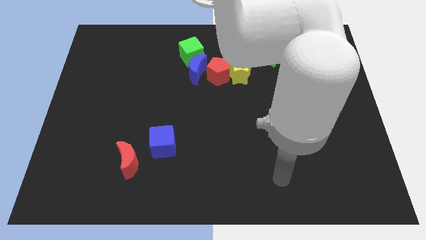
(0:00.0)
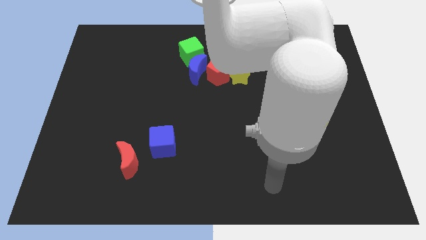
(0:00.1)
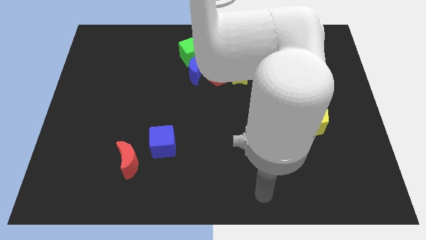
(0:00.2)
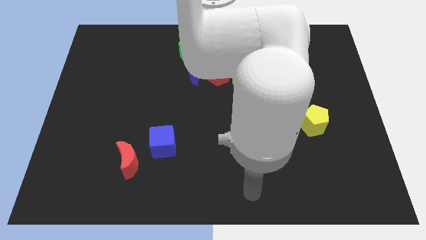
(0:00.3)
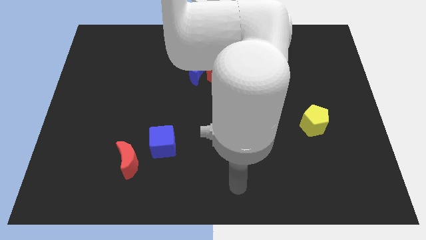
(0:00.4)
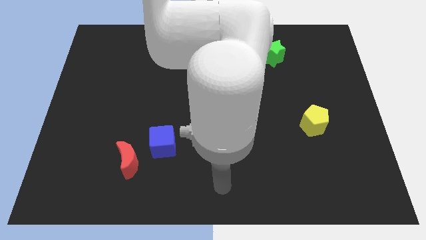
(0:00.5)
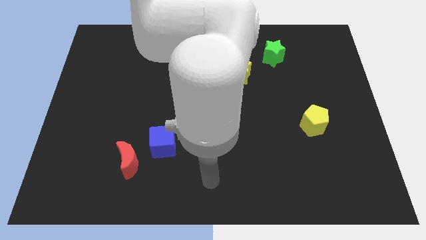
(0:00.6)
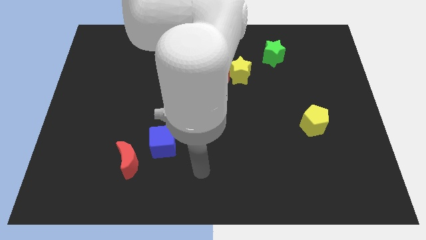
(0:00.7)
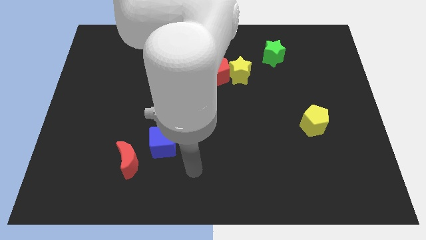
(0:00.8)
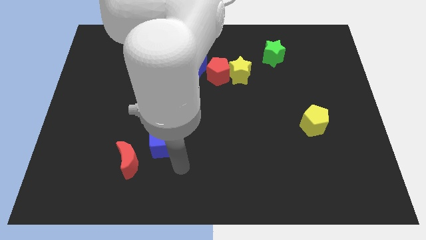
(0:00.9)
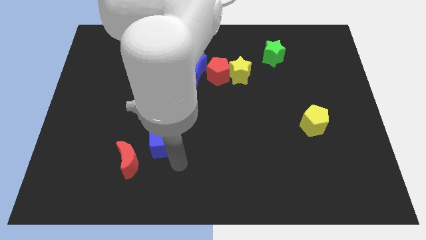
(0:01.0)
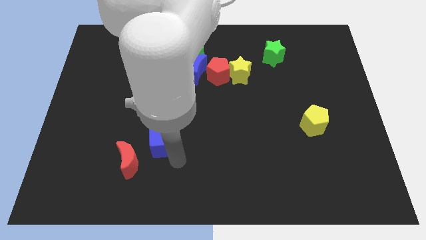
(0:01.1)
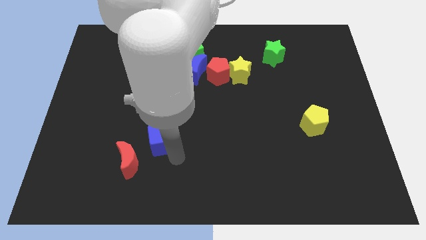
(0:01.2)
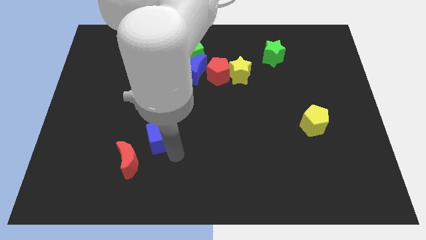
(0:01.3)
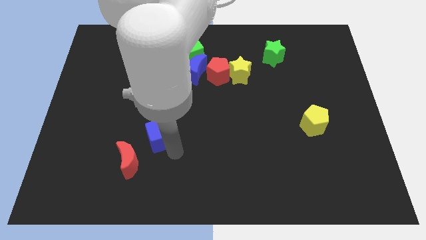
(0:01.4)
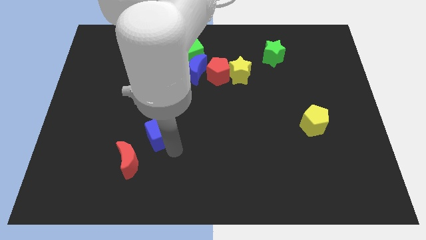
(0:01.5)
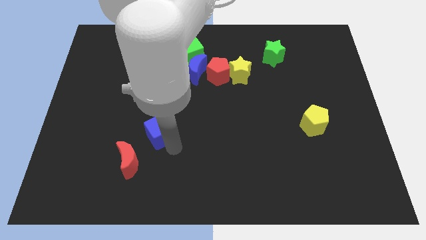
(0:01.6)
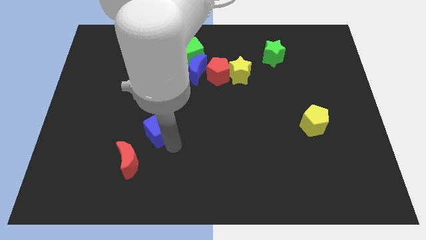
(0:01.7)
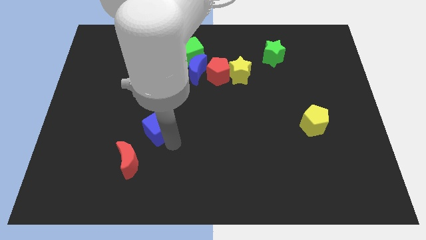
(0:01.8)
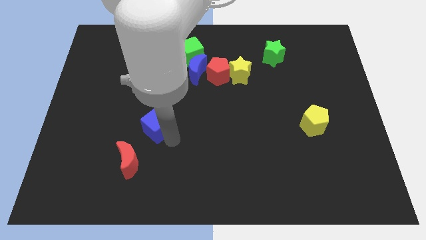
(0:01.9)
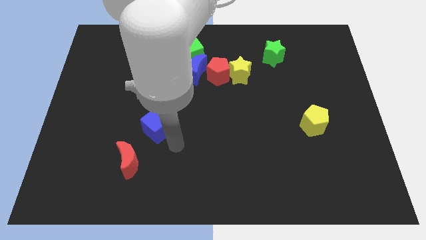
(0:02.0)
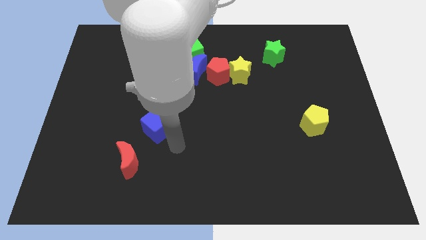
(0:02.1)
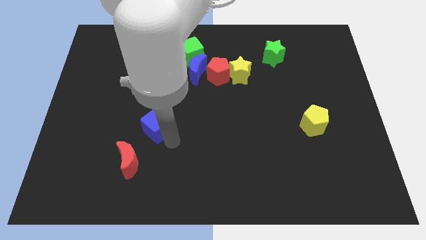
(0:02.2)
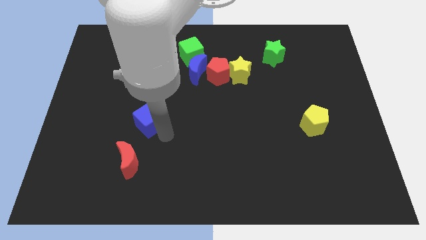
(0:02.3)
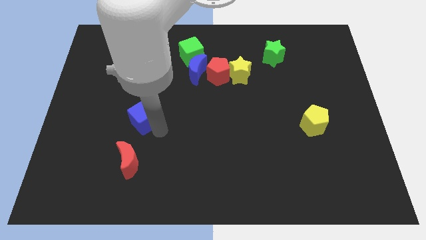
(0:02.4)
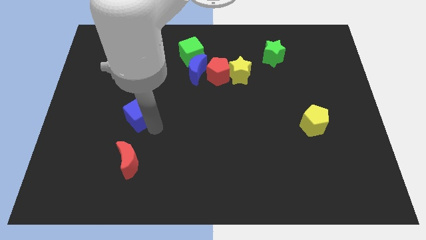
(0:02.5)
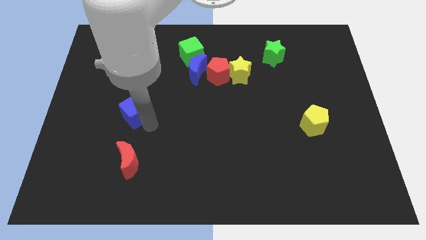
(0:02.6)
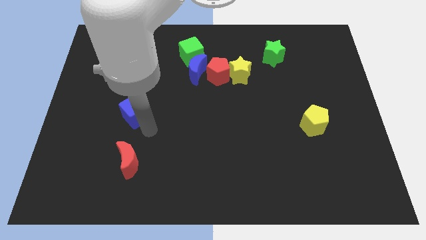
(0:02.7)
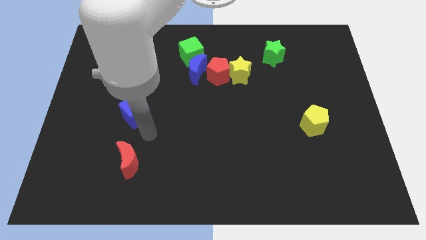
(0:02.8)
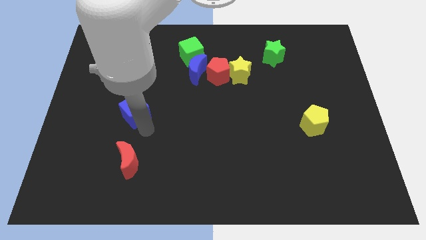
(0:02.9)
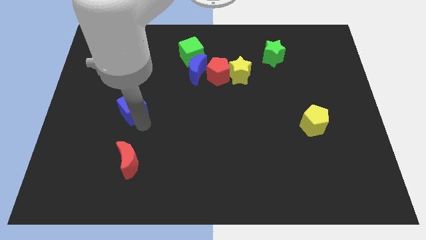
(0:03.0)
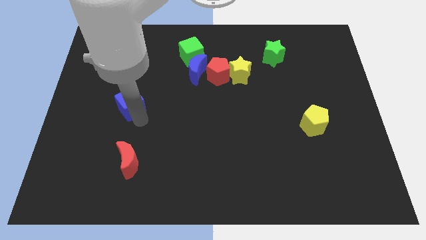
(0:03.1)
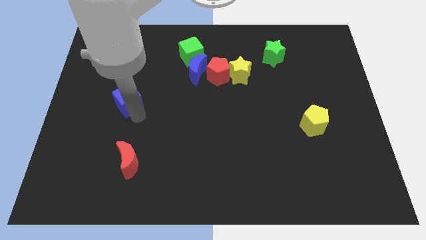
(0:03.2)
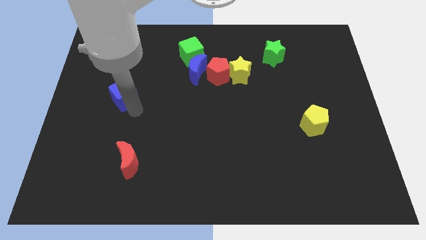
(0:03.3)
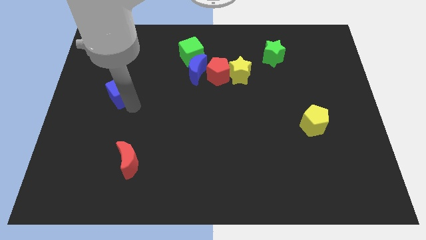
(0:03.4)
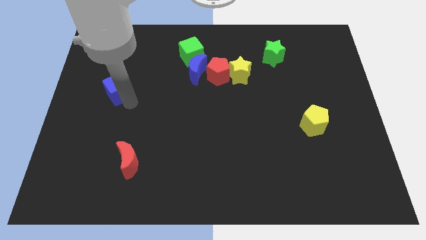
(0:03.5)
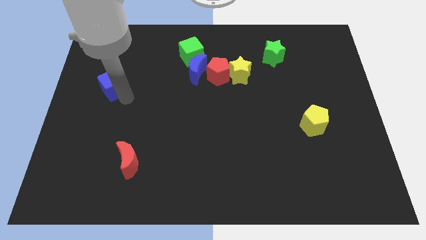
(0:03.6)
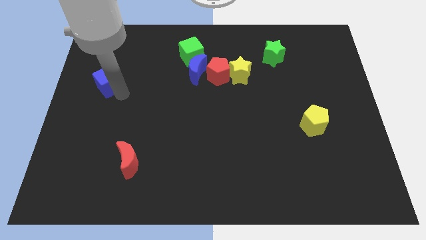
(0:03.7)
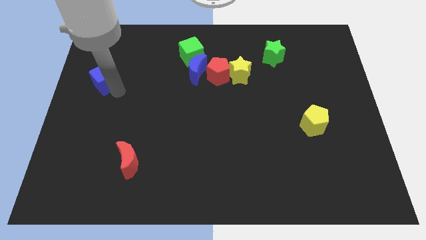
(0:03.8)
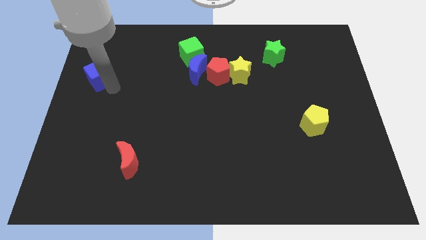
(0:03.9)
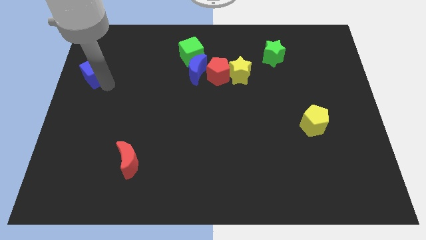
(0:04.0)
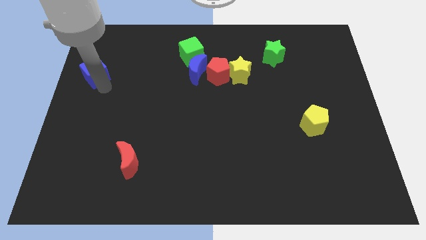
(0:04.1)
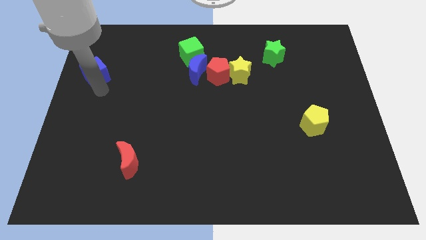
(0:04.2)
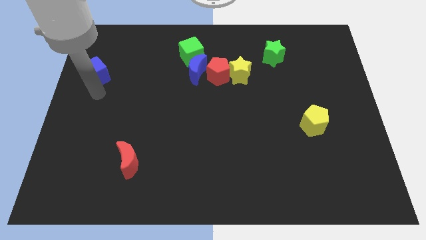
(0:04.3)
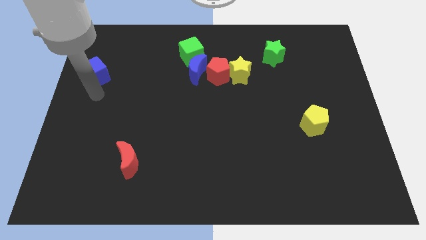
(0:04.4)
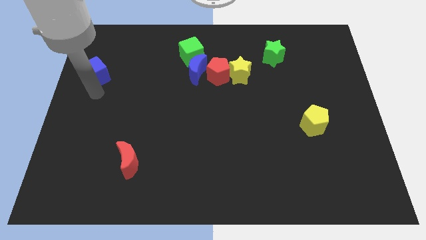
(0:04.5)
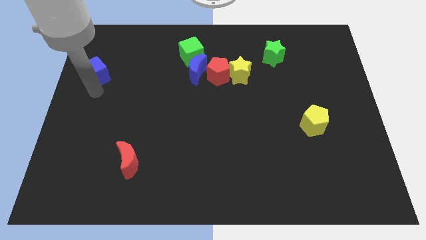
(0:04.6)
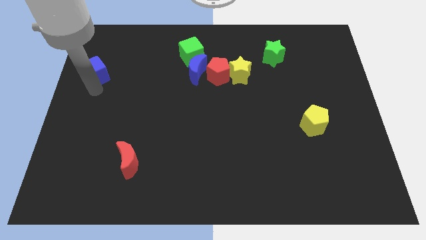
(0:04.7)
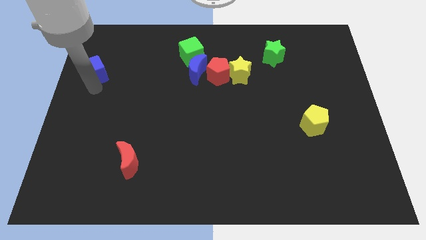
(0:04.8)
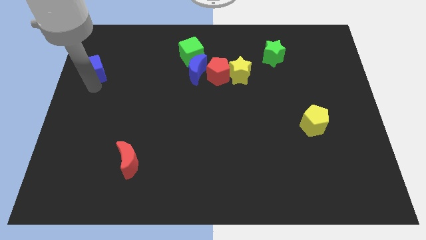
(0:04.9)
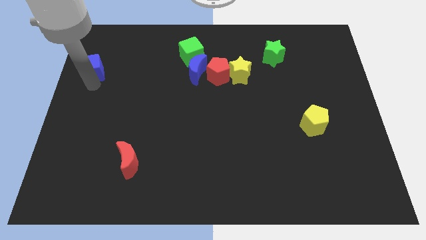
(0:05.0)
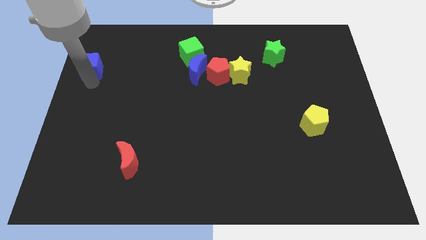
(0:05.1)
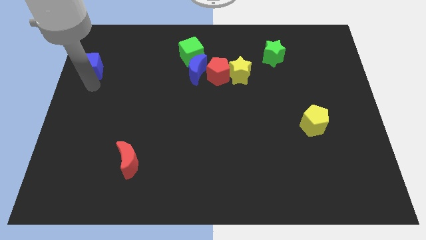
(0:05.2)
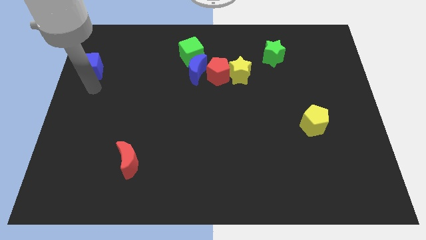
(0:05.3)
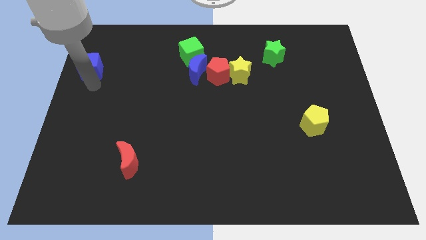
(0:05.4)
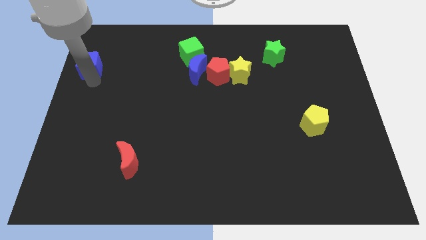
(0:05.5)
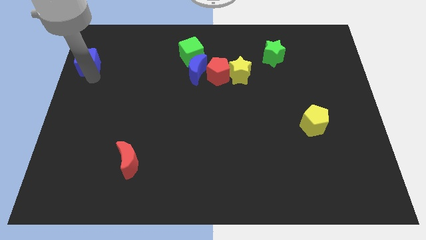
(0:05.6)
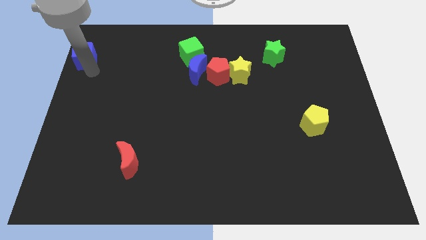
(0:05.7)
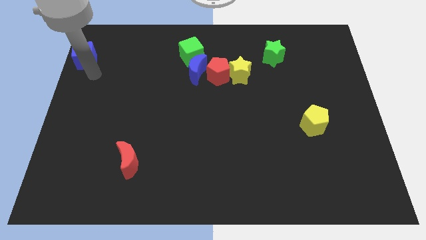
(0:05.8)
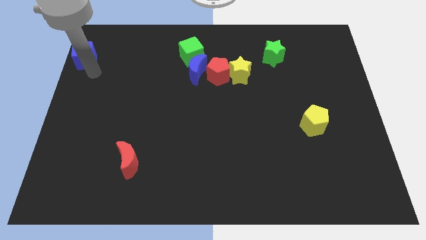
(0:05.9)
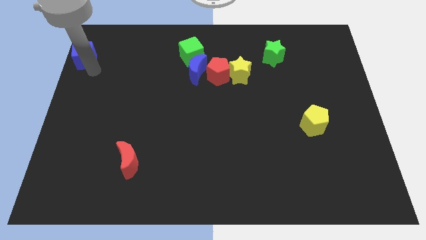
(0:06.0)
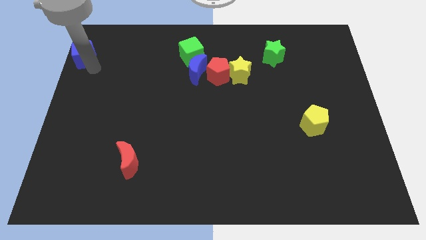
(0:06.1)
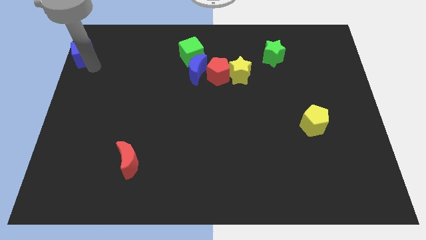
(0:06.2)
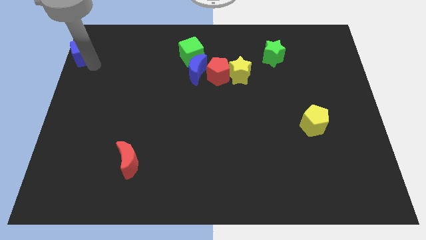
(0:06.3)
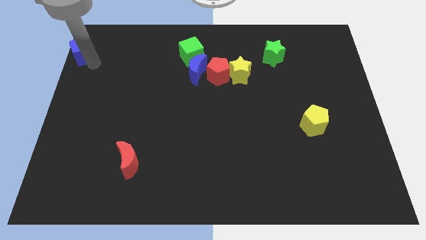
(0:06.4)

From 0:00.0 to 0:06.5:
push the blue cube to the top left of the board
